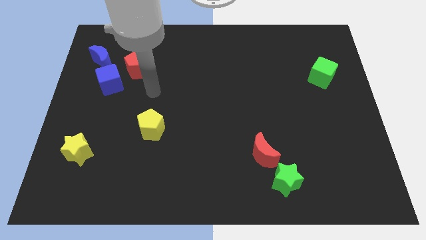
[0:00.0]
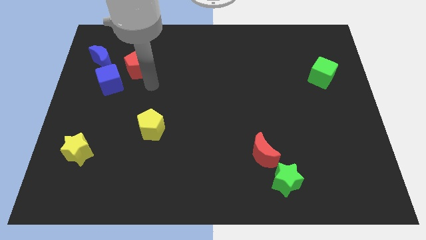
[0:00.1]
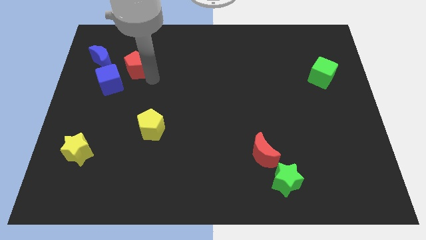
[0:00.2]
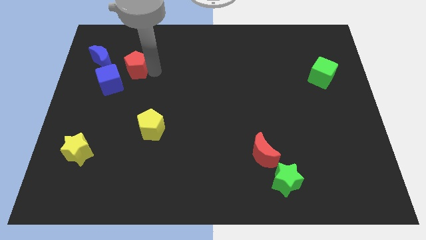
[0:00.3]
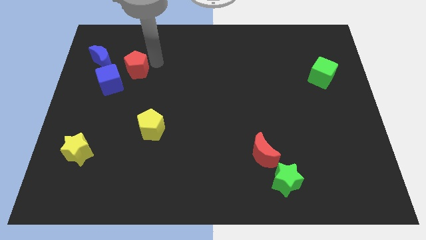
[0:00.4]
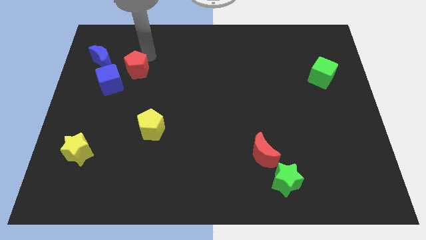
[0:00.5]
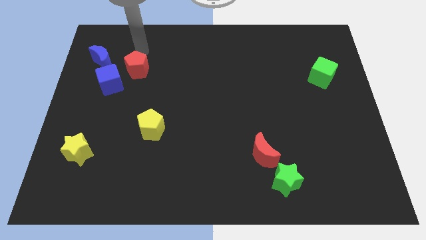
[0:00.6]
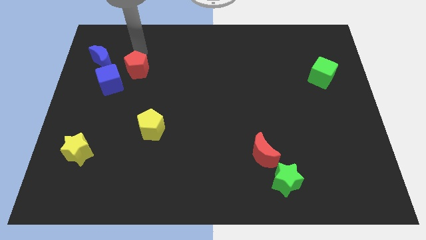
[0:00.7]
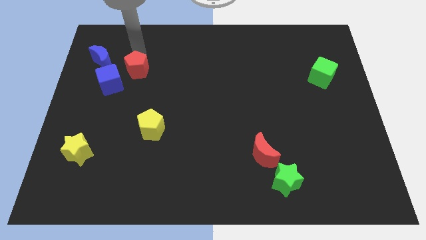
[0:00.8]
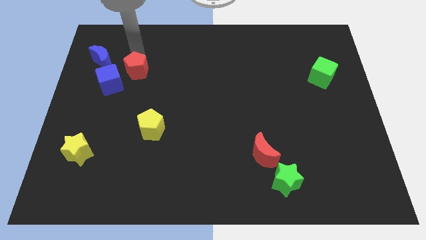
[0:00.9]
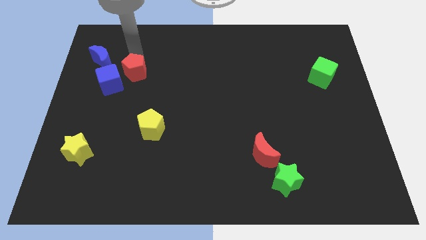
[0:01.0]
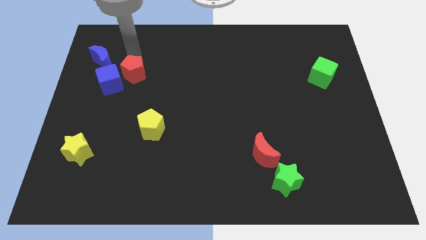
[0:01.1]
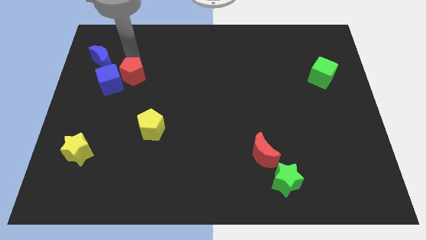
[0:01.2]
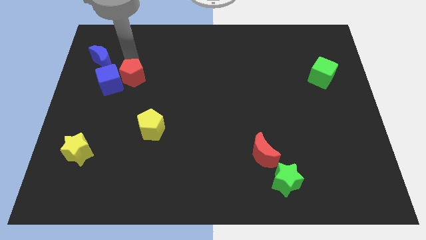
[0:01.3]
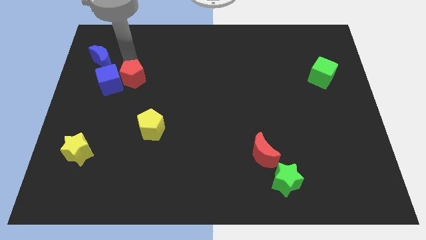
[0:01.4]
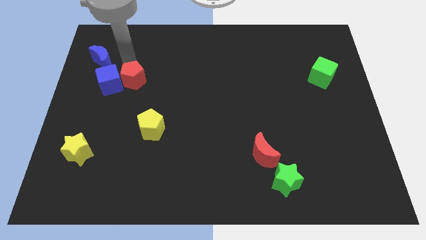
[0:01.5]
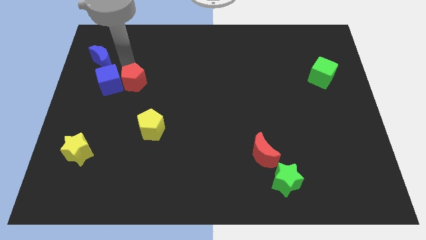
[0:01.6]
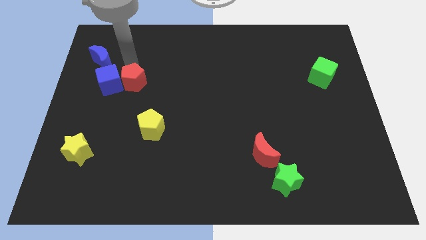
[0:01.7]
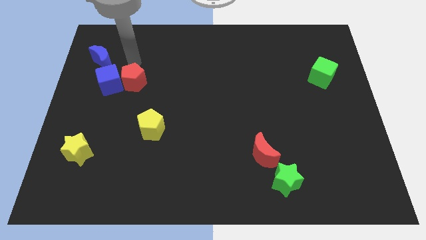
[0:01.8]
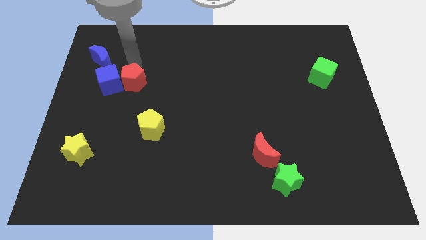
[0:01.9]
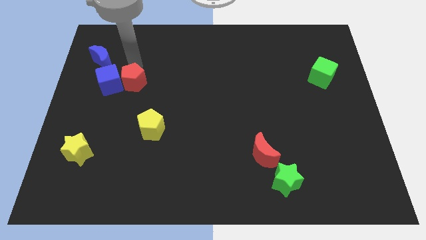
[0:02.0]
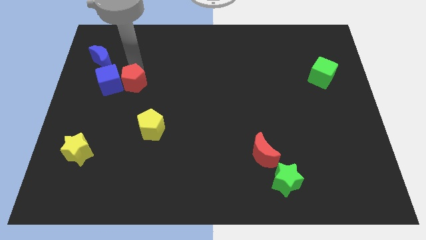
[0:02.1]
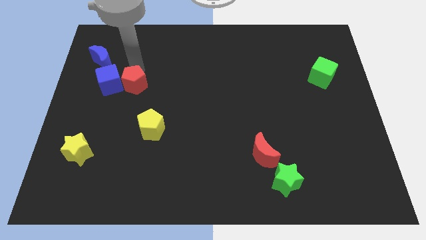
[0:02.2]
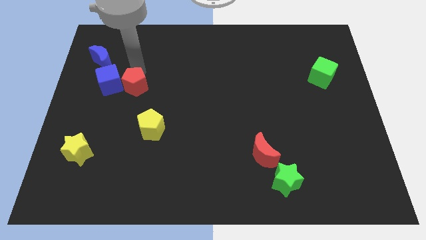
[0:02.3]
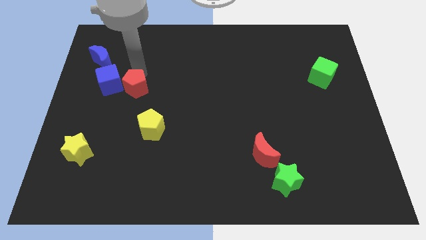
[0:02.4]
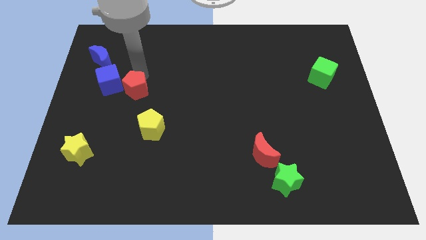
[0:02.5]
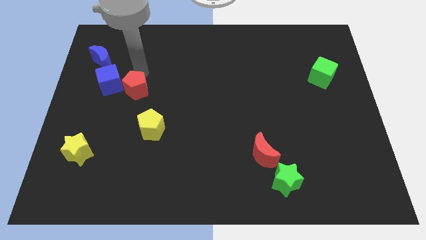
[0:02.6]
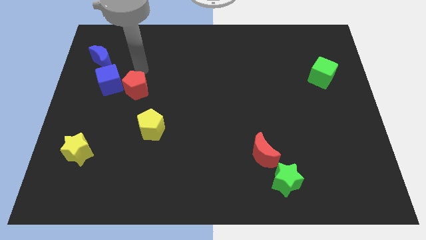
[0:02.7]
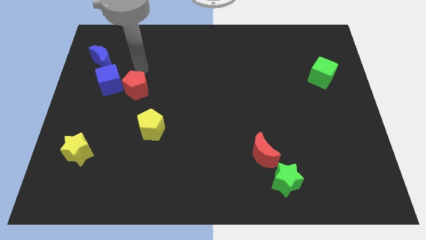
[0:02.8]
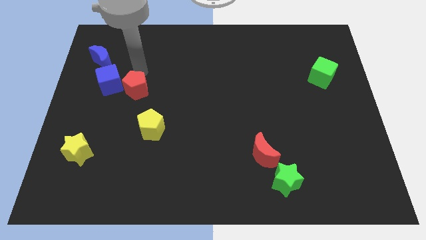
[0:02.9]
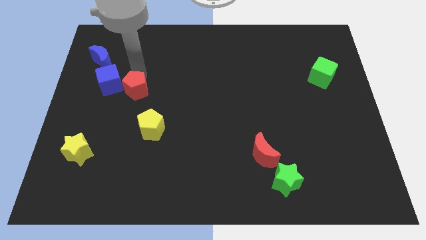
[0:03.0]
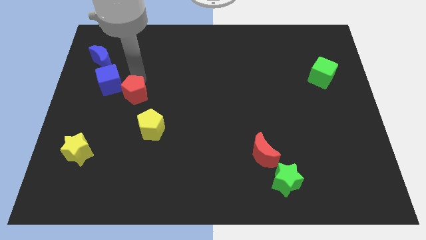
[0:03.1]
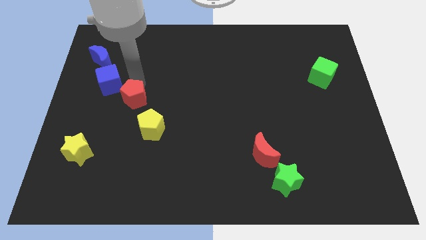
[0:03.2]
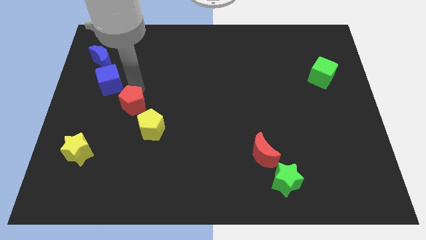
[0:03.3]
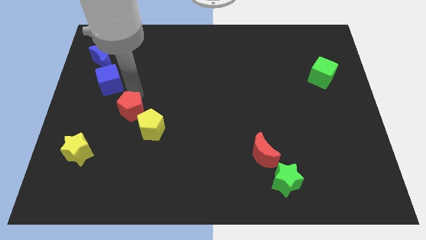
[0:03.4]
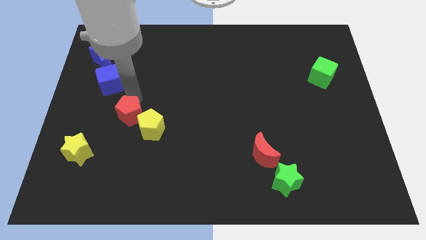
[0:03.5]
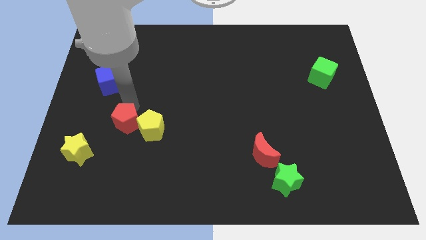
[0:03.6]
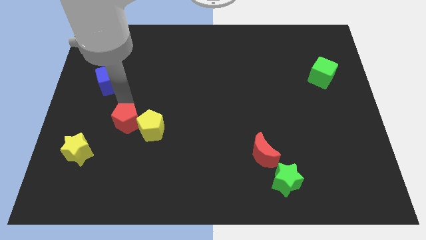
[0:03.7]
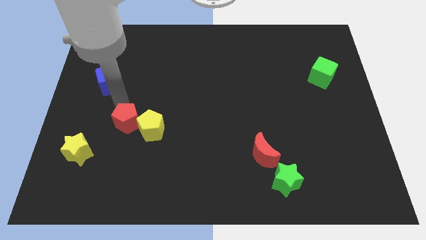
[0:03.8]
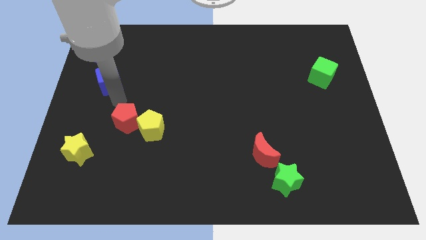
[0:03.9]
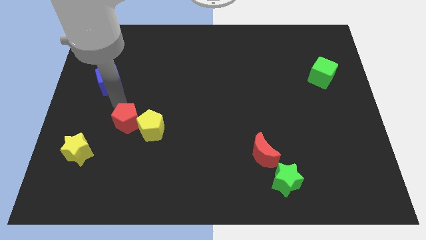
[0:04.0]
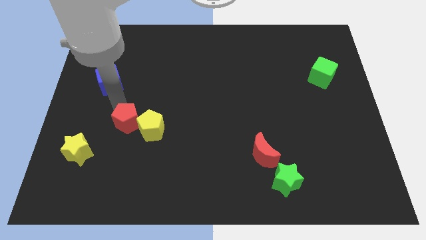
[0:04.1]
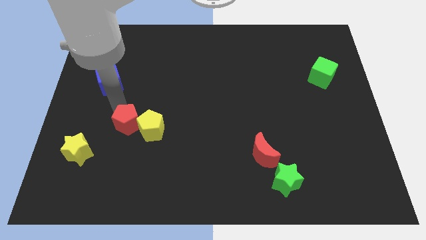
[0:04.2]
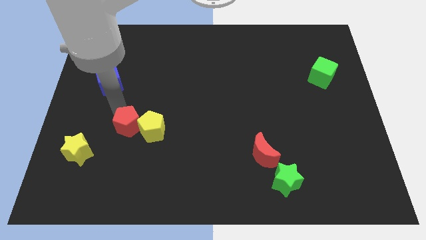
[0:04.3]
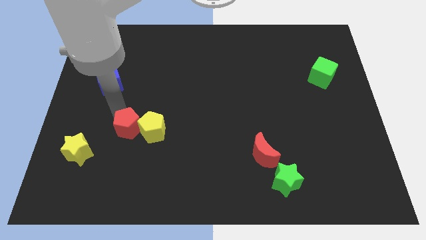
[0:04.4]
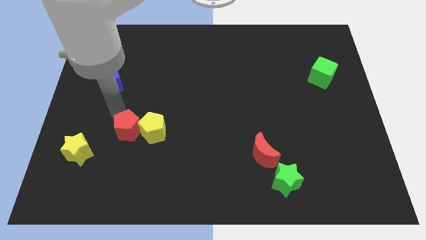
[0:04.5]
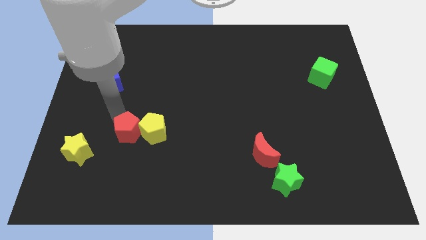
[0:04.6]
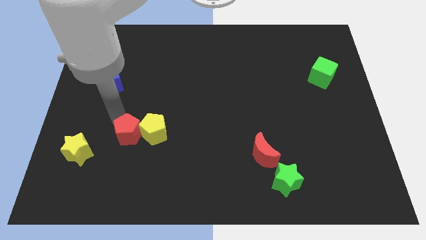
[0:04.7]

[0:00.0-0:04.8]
move the red pentagon downwards

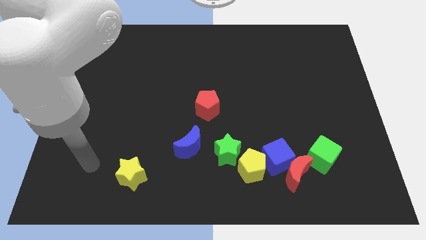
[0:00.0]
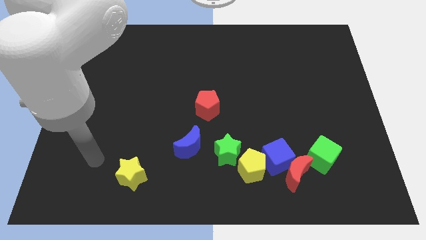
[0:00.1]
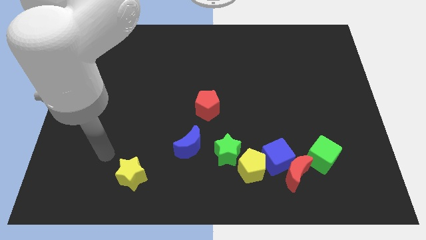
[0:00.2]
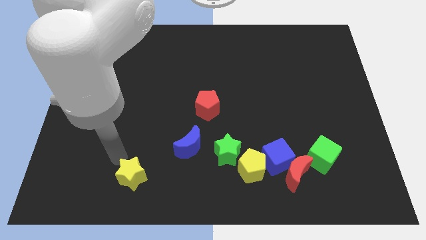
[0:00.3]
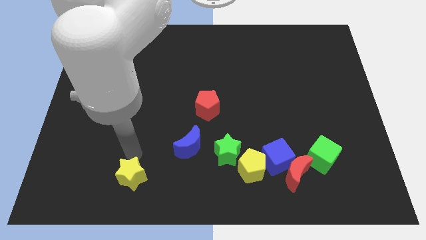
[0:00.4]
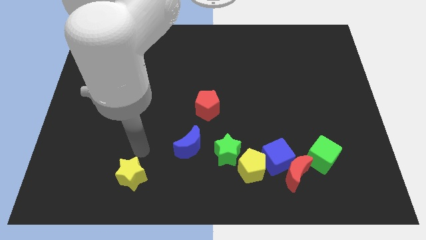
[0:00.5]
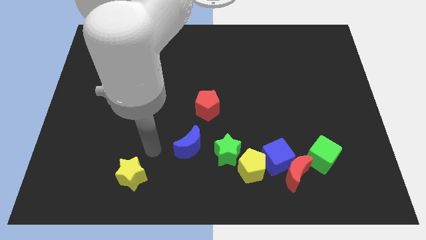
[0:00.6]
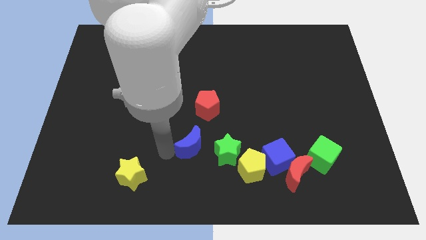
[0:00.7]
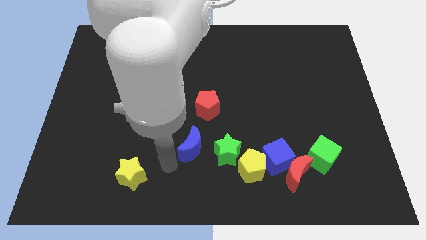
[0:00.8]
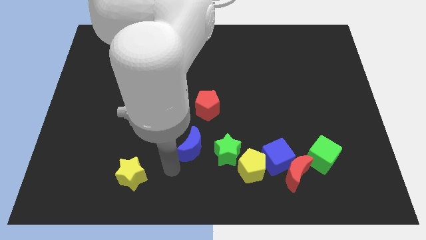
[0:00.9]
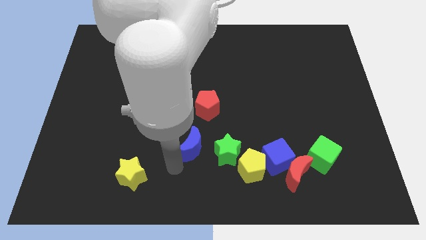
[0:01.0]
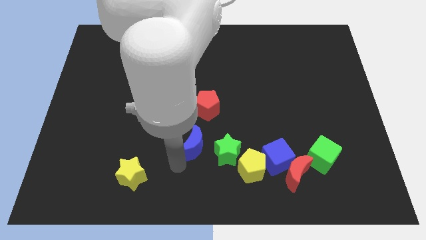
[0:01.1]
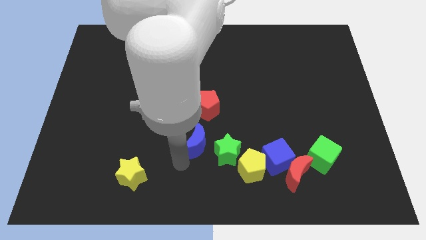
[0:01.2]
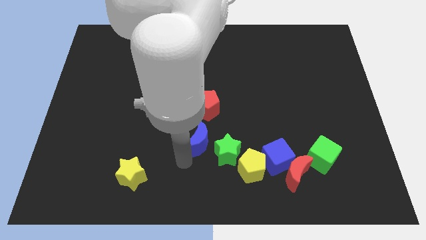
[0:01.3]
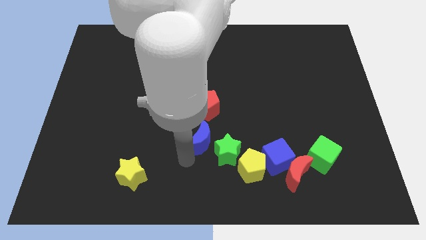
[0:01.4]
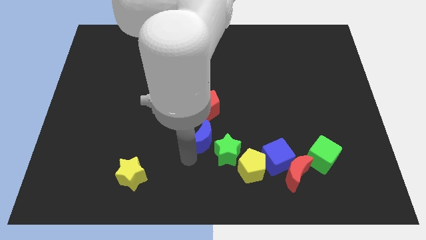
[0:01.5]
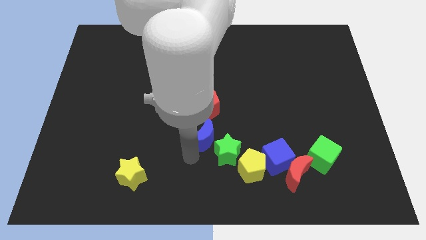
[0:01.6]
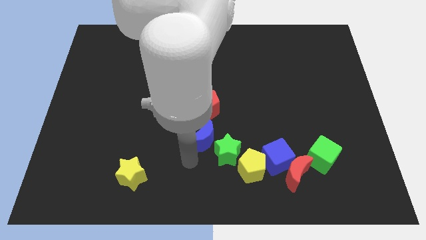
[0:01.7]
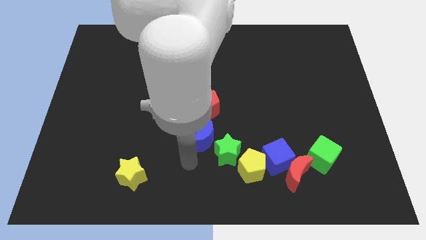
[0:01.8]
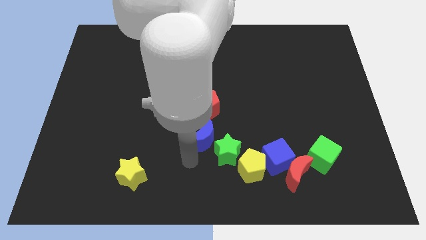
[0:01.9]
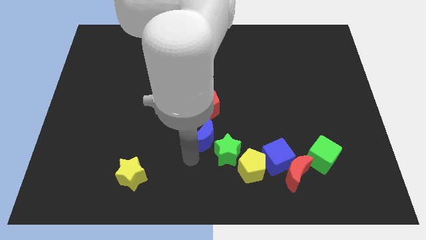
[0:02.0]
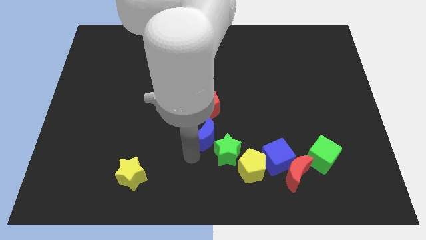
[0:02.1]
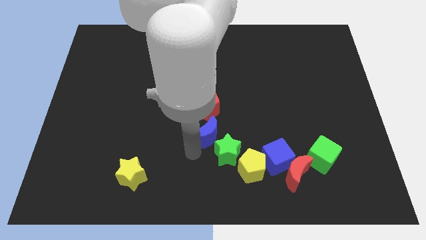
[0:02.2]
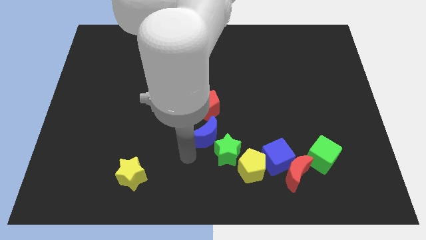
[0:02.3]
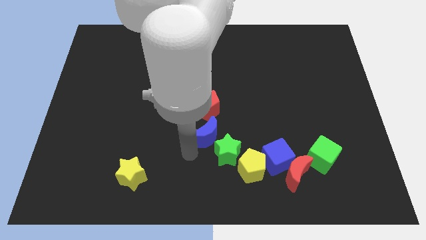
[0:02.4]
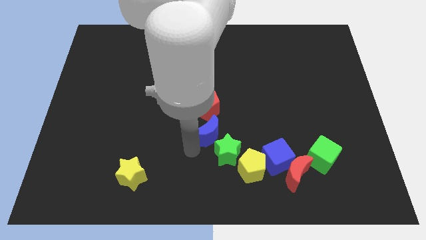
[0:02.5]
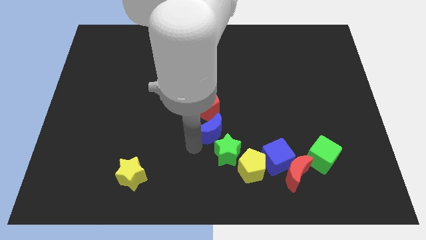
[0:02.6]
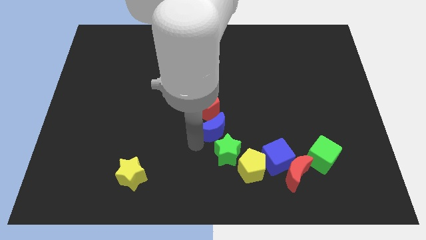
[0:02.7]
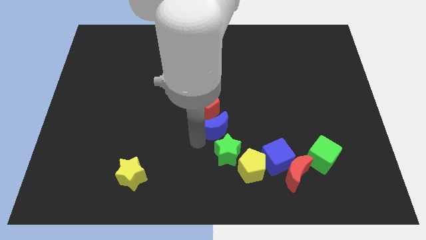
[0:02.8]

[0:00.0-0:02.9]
push the blue moon slightly diagonally up and to the right

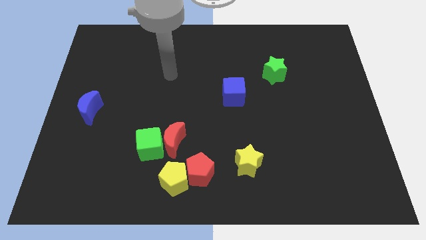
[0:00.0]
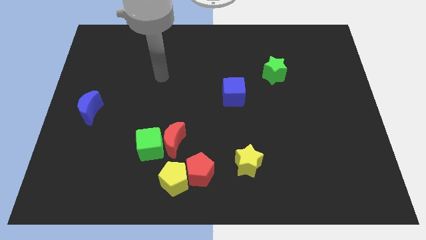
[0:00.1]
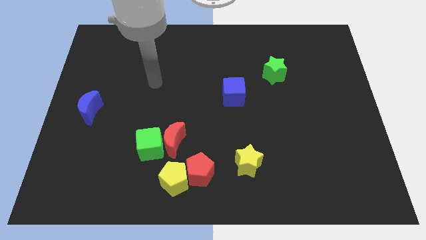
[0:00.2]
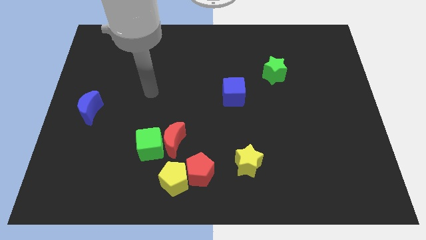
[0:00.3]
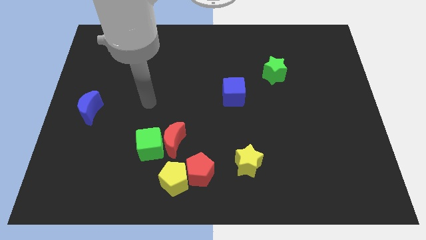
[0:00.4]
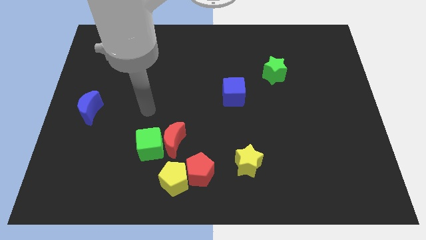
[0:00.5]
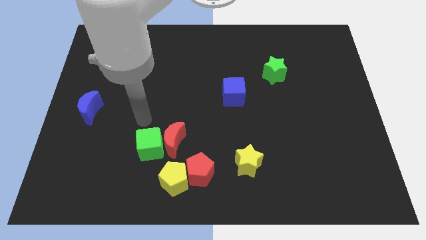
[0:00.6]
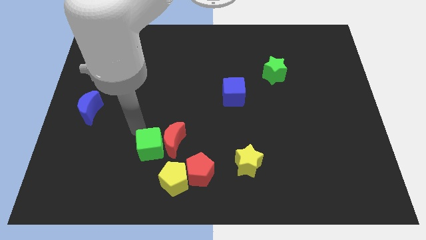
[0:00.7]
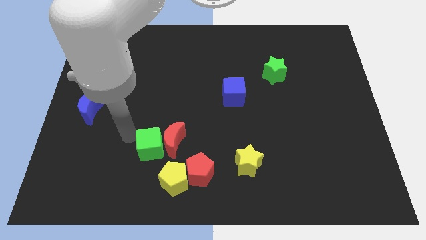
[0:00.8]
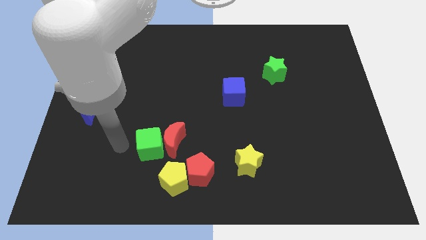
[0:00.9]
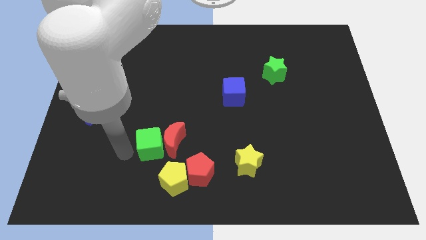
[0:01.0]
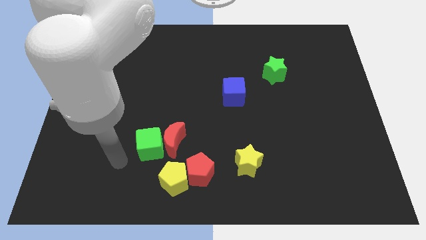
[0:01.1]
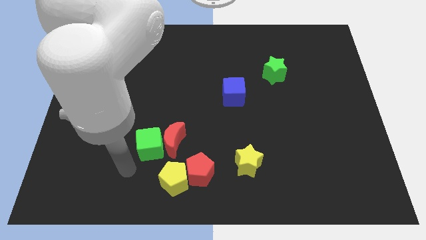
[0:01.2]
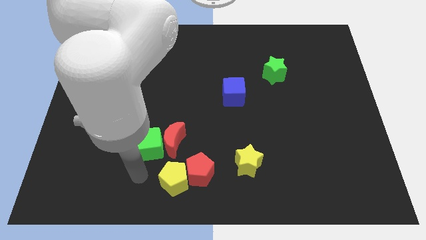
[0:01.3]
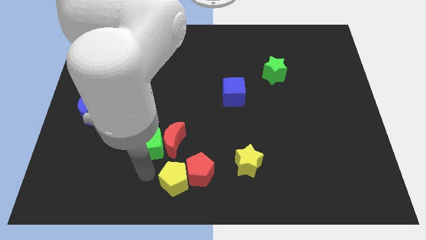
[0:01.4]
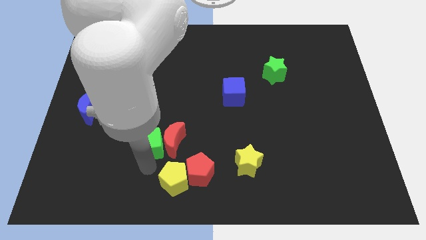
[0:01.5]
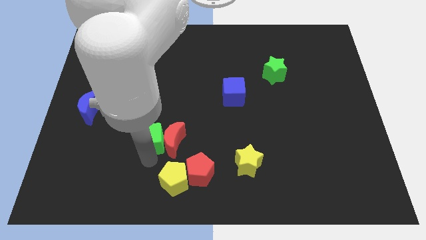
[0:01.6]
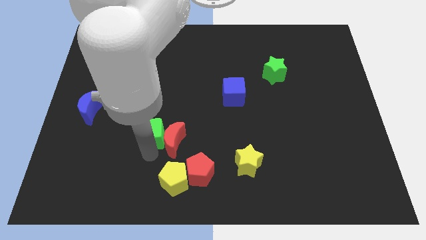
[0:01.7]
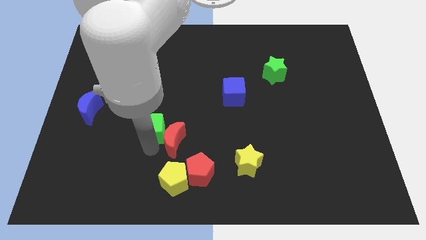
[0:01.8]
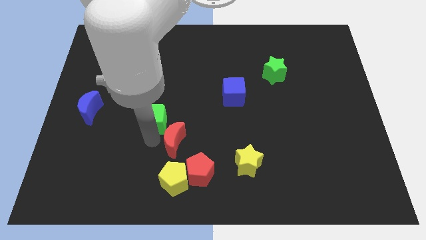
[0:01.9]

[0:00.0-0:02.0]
slightly push the green cube upwards
